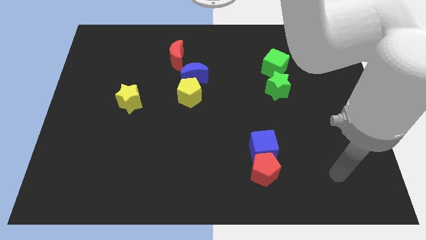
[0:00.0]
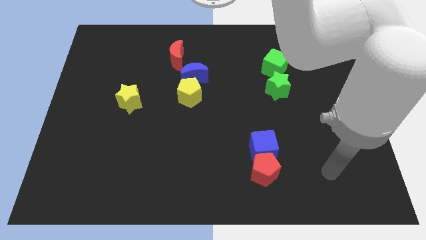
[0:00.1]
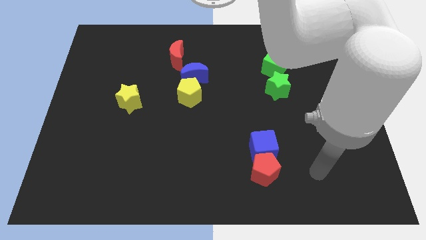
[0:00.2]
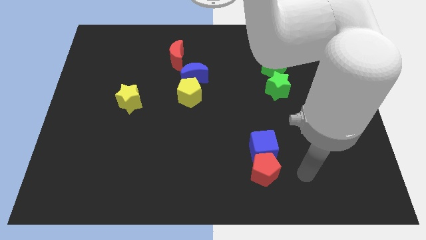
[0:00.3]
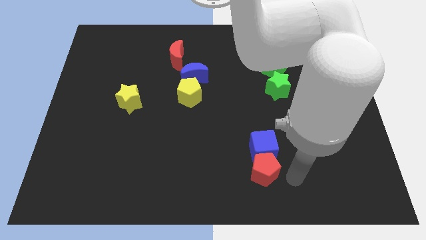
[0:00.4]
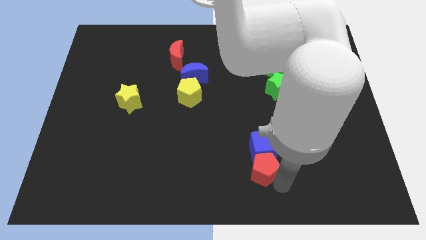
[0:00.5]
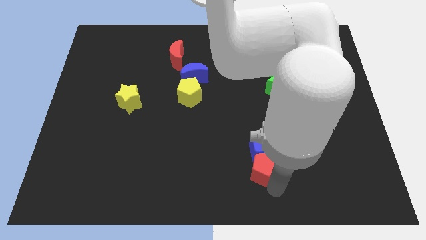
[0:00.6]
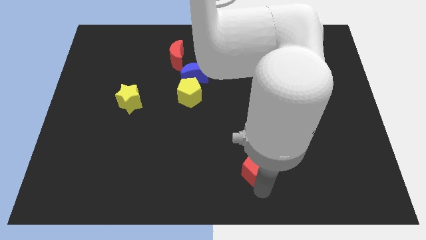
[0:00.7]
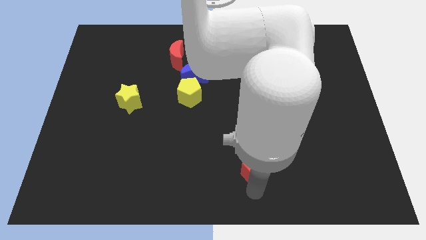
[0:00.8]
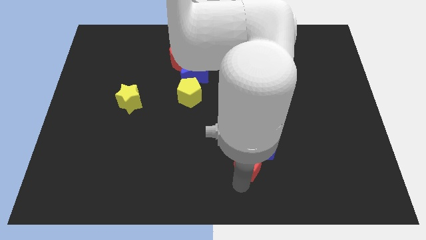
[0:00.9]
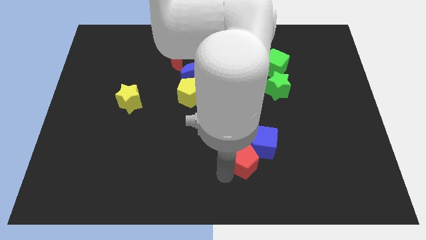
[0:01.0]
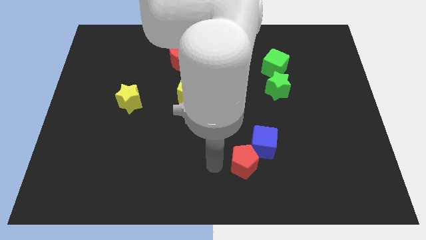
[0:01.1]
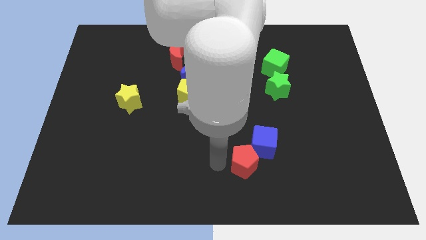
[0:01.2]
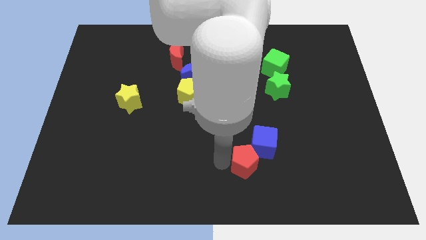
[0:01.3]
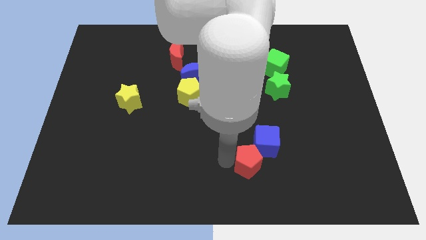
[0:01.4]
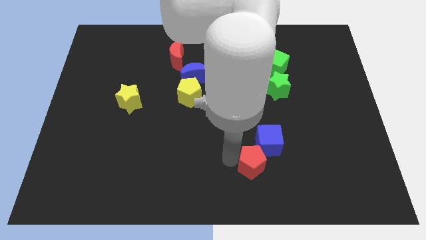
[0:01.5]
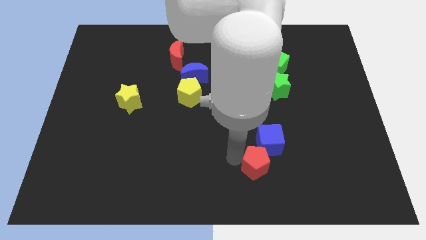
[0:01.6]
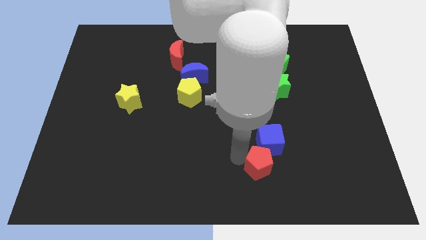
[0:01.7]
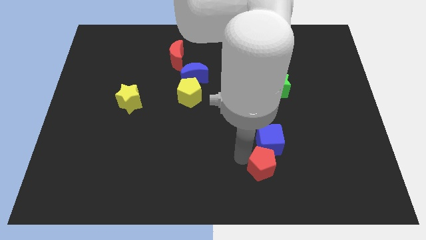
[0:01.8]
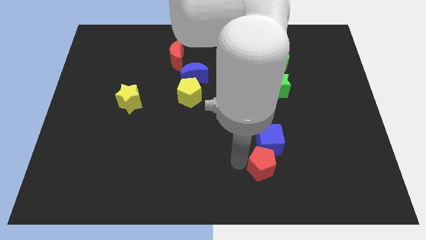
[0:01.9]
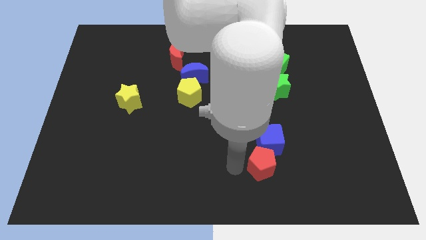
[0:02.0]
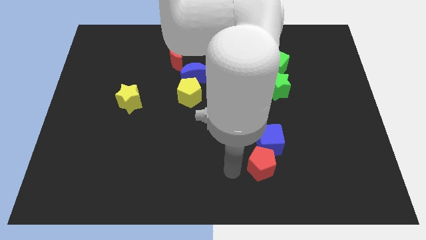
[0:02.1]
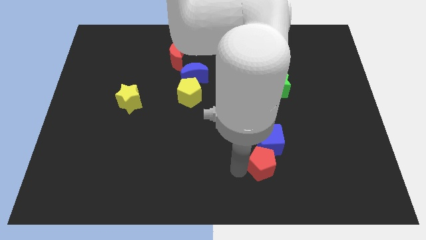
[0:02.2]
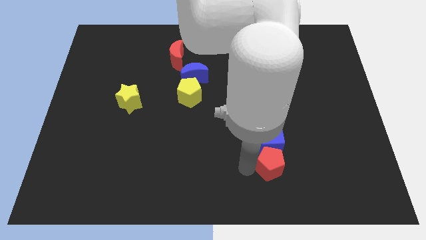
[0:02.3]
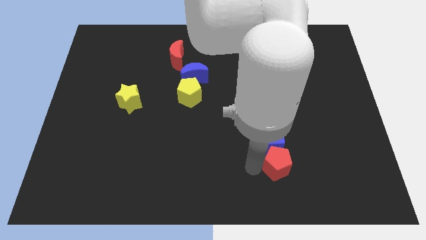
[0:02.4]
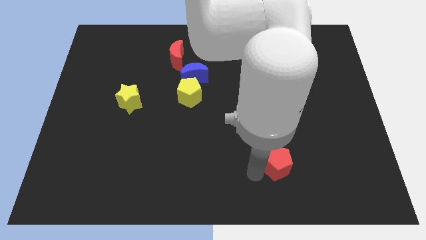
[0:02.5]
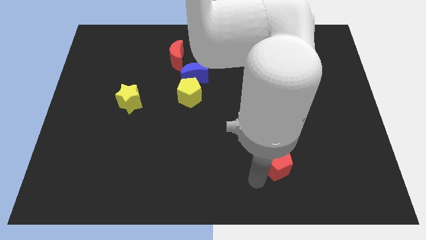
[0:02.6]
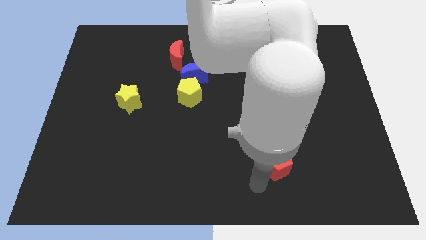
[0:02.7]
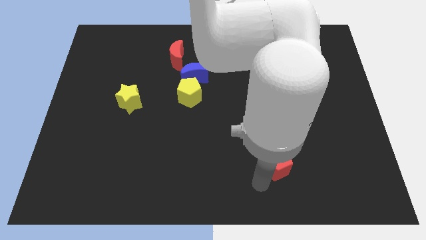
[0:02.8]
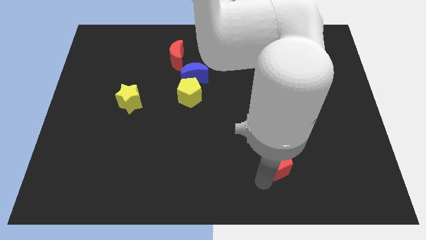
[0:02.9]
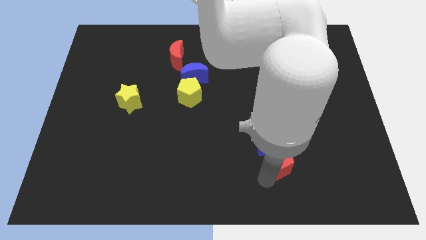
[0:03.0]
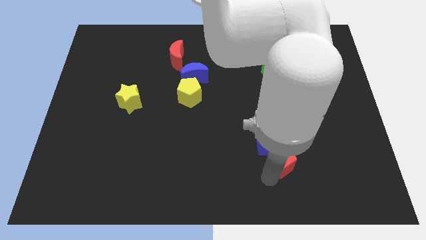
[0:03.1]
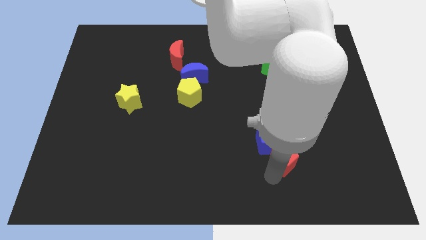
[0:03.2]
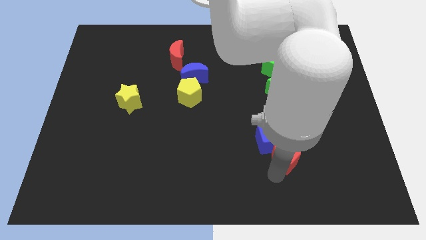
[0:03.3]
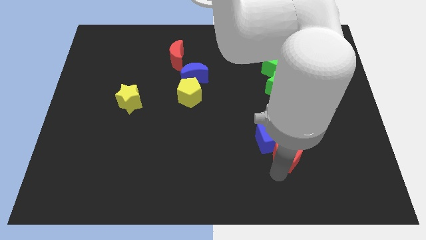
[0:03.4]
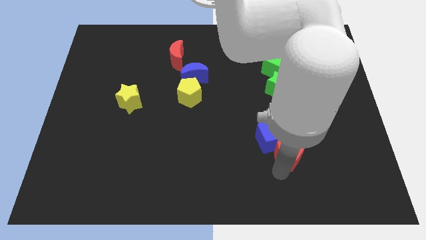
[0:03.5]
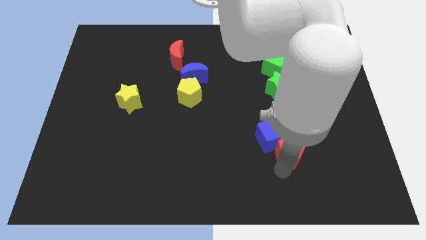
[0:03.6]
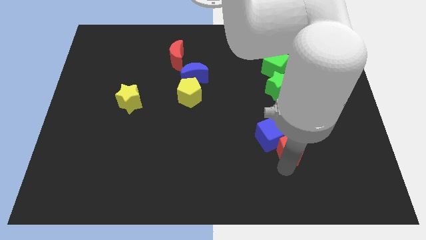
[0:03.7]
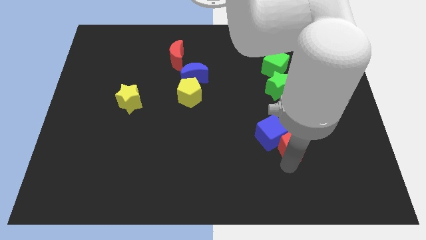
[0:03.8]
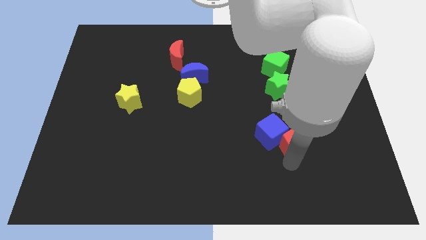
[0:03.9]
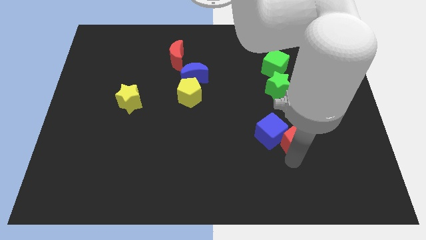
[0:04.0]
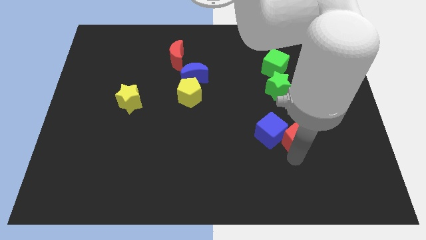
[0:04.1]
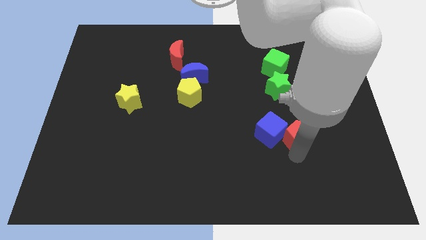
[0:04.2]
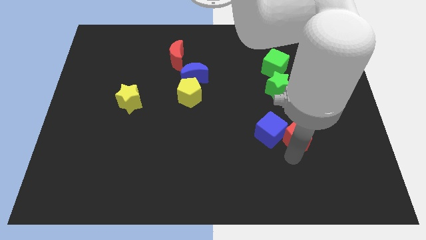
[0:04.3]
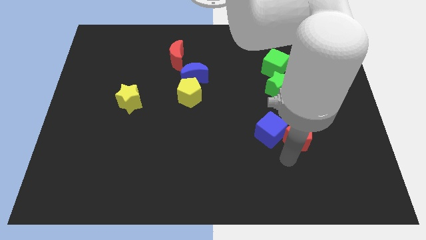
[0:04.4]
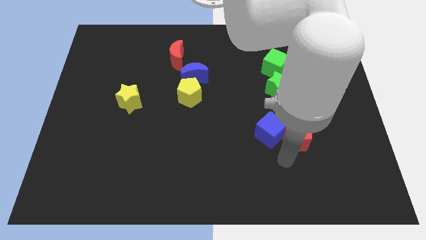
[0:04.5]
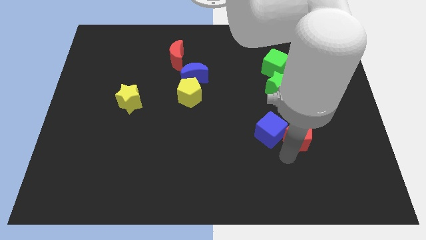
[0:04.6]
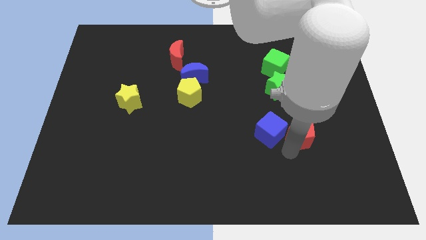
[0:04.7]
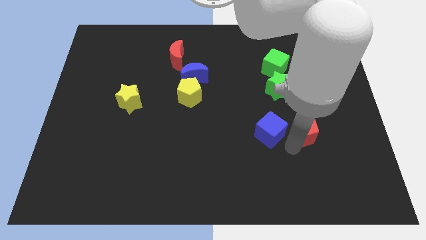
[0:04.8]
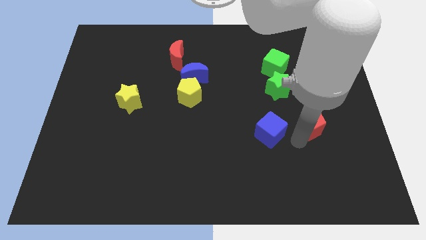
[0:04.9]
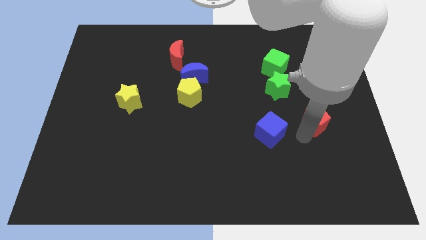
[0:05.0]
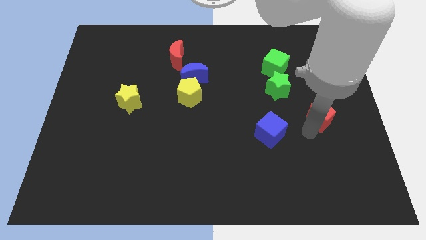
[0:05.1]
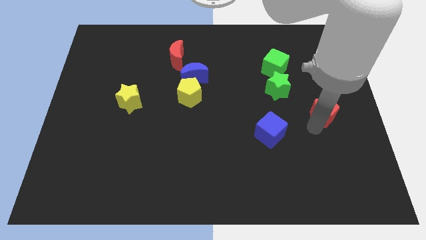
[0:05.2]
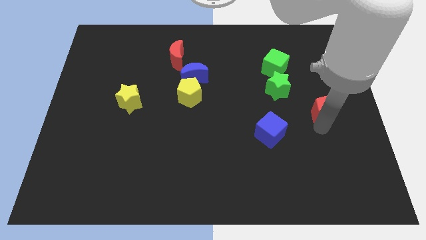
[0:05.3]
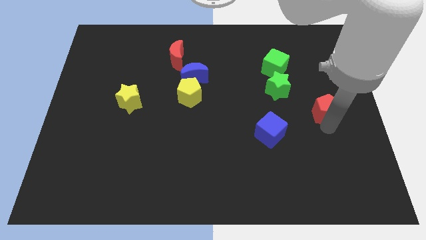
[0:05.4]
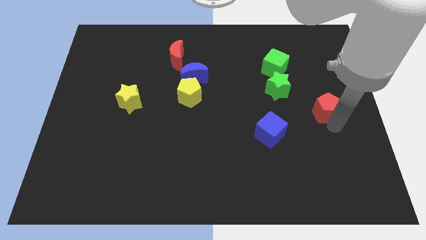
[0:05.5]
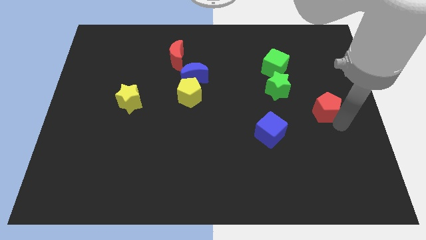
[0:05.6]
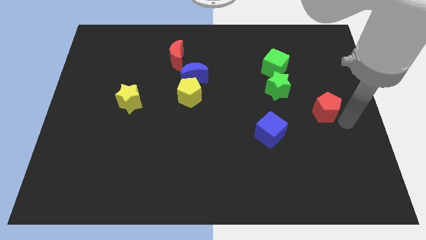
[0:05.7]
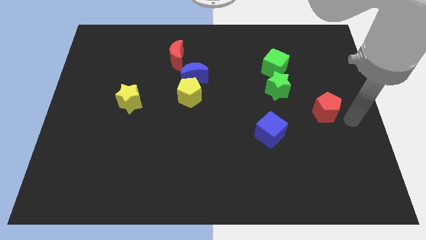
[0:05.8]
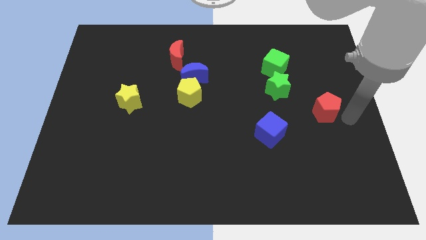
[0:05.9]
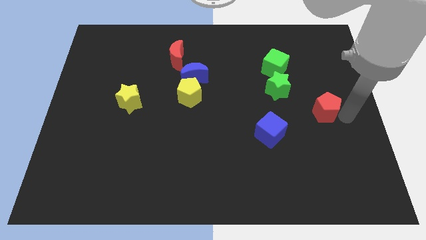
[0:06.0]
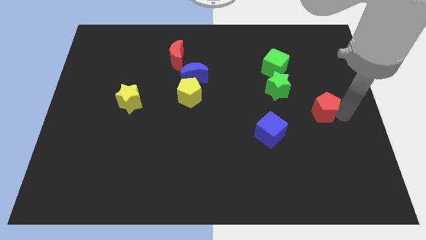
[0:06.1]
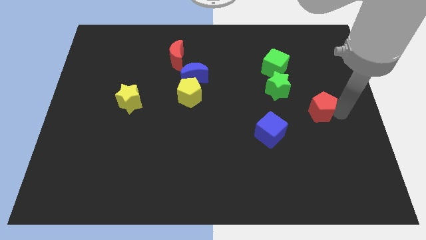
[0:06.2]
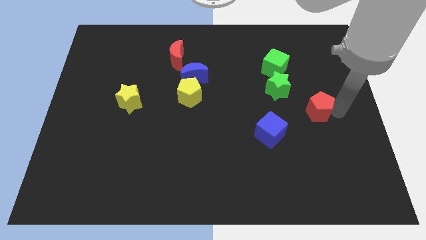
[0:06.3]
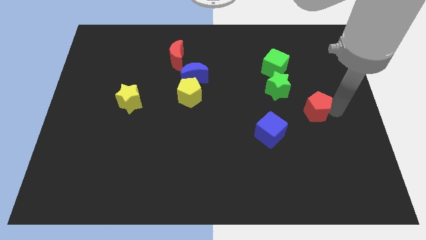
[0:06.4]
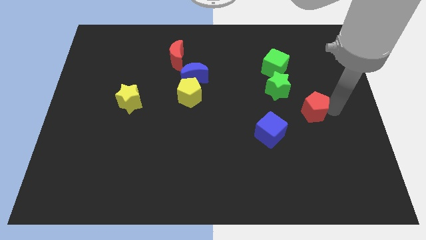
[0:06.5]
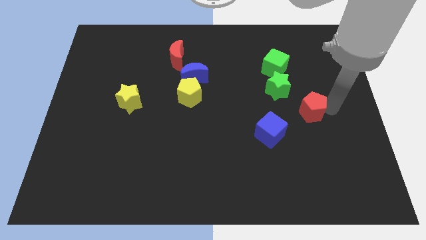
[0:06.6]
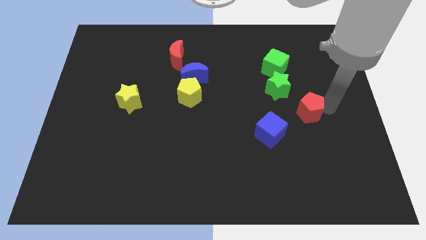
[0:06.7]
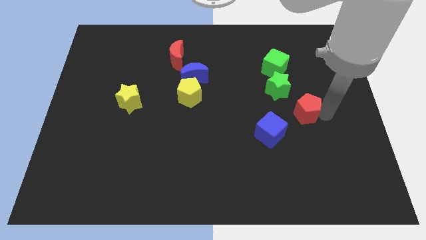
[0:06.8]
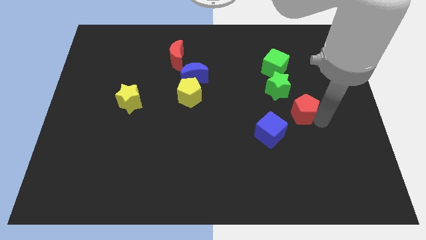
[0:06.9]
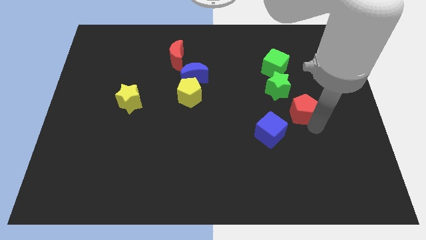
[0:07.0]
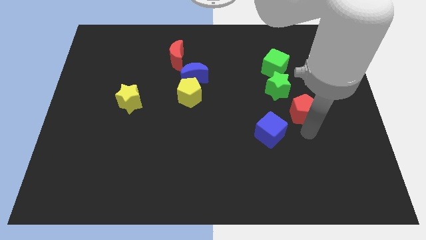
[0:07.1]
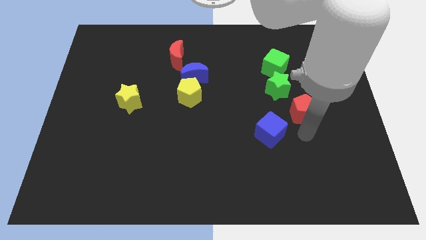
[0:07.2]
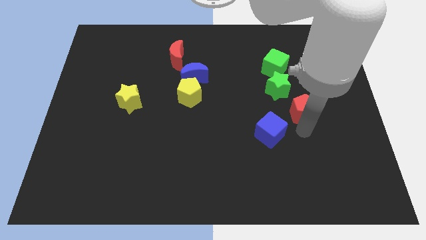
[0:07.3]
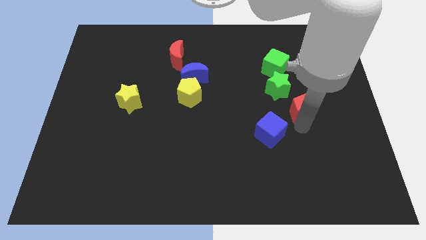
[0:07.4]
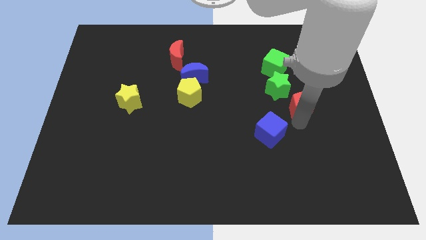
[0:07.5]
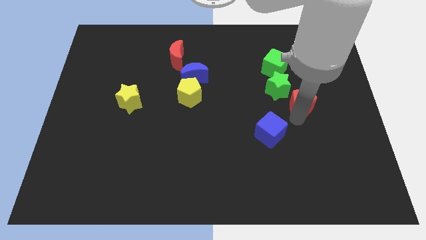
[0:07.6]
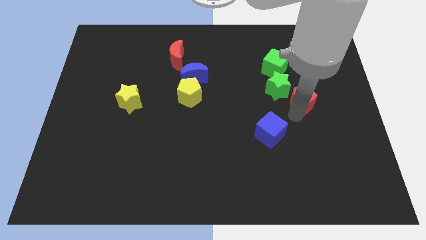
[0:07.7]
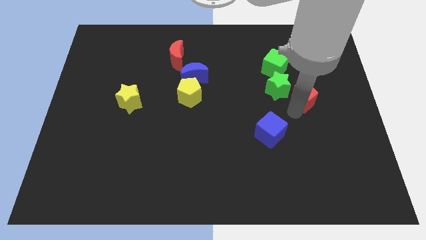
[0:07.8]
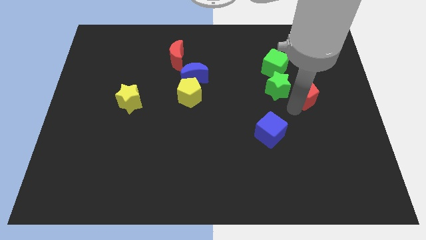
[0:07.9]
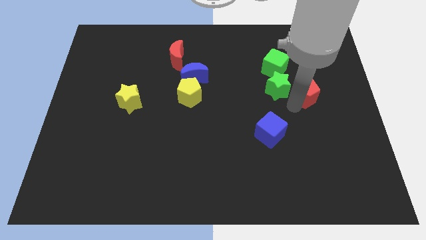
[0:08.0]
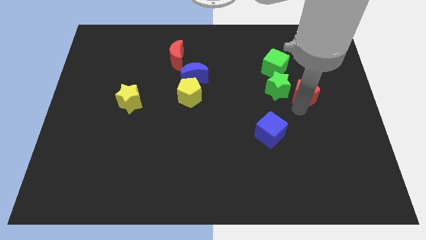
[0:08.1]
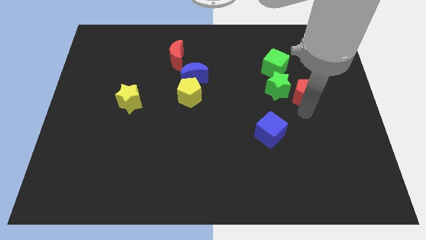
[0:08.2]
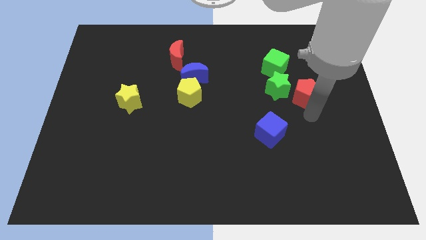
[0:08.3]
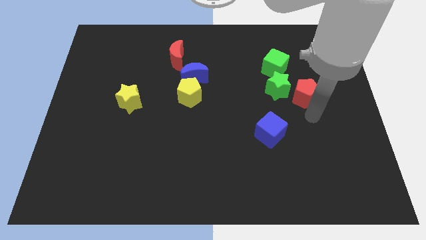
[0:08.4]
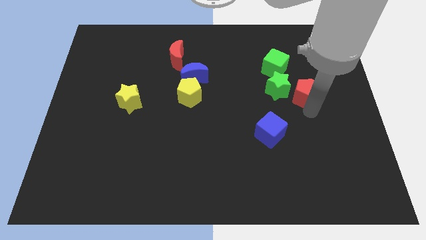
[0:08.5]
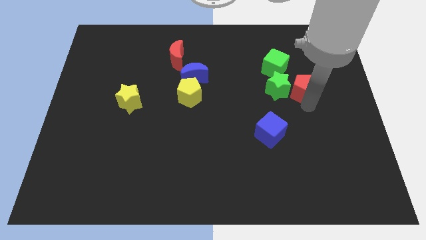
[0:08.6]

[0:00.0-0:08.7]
move the red pentagon to the top right side of the green star
